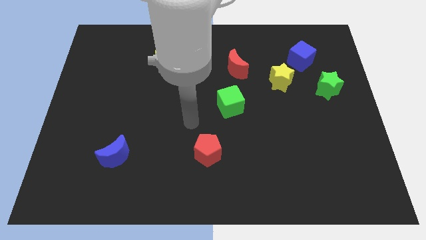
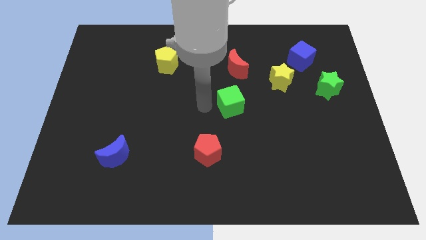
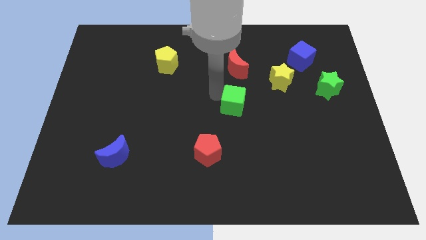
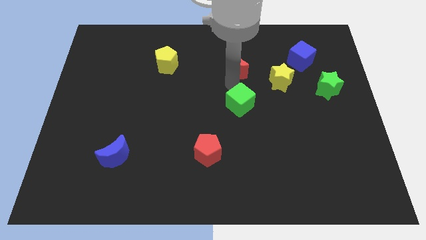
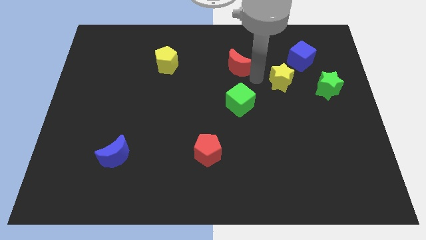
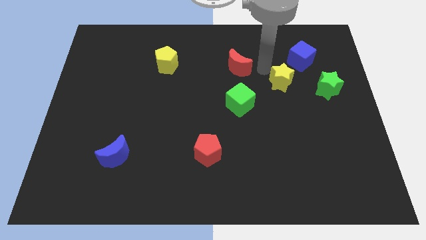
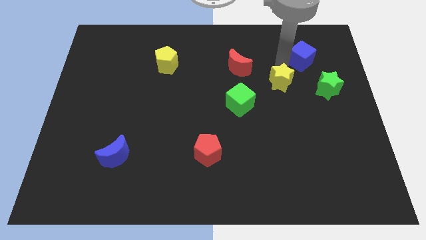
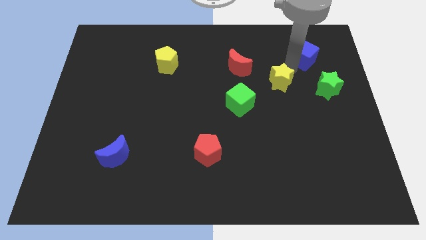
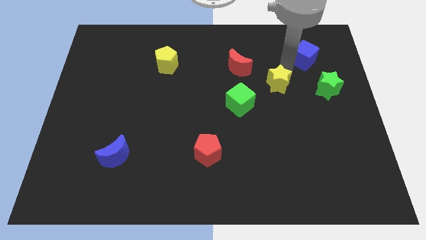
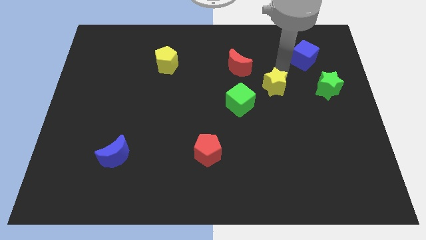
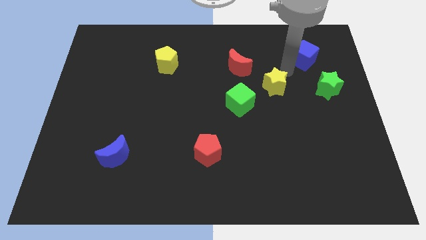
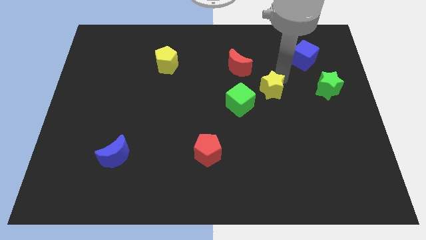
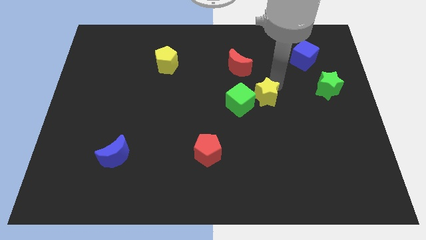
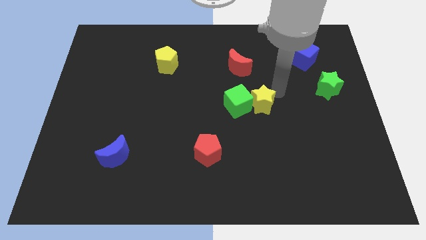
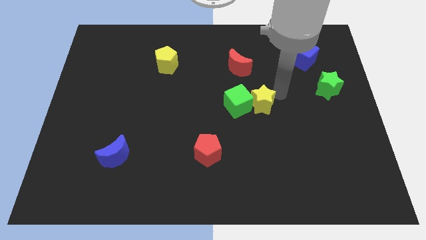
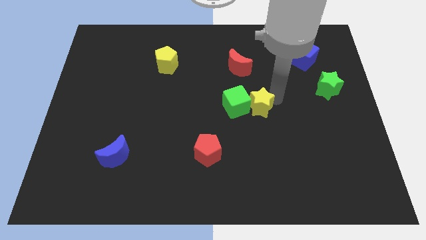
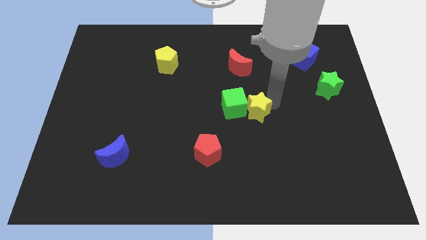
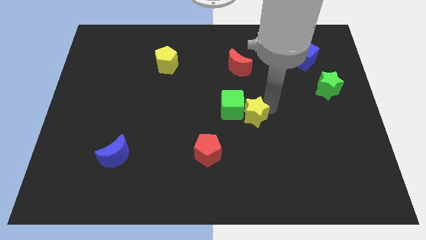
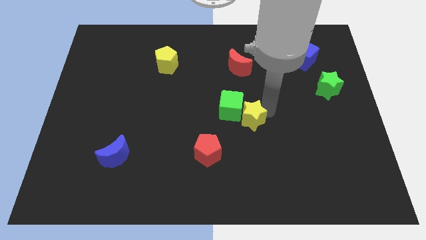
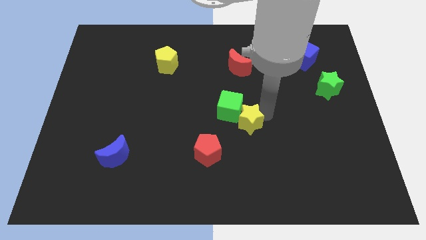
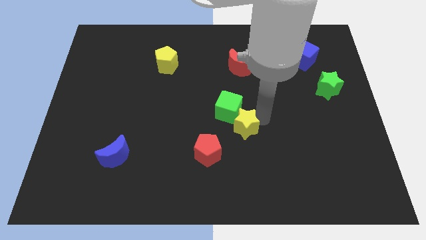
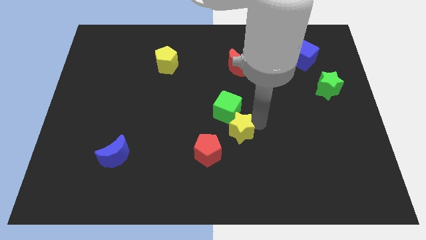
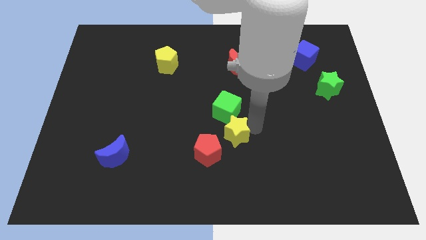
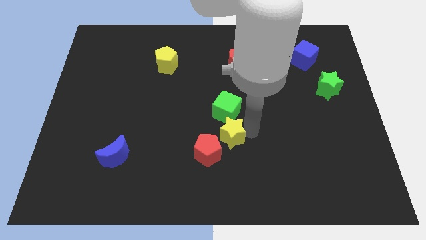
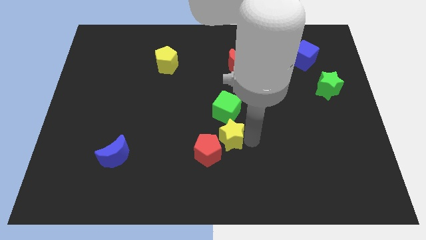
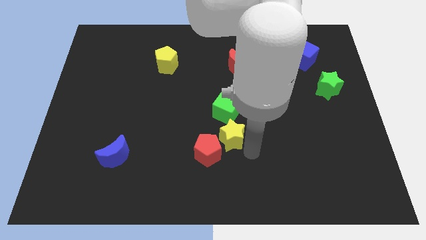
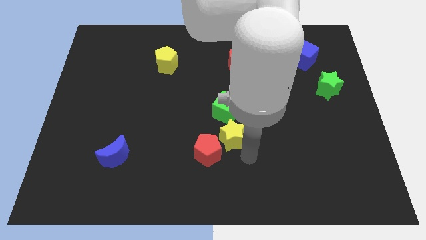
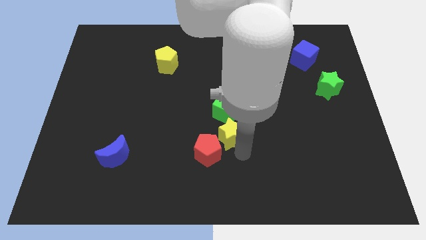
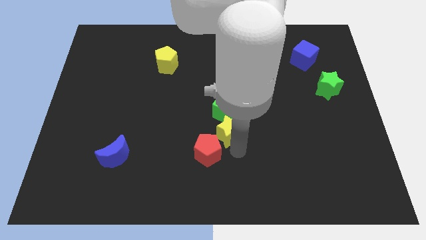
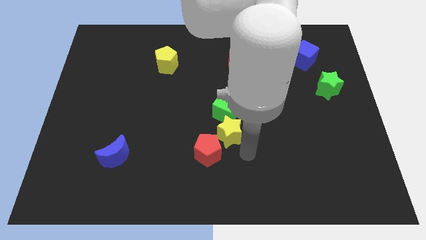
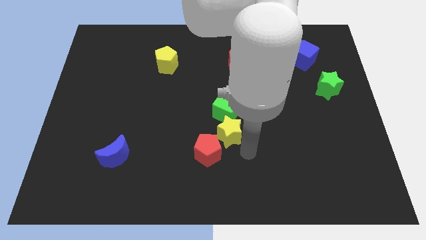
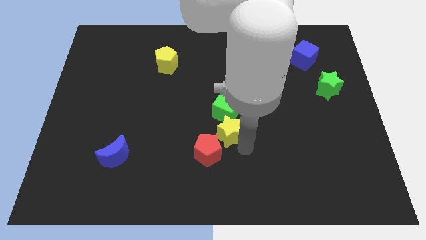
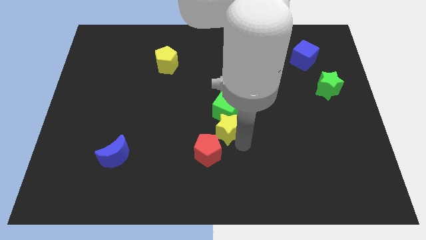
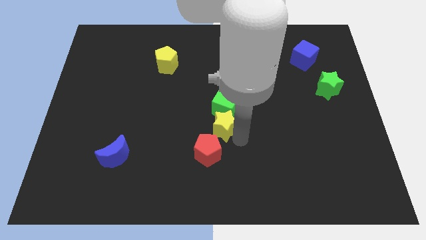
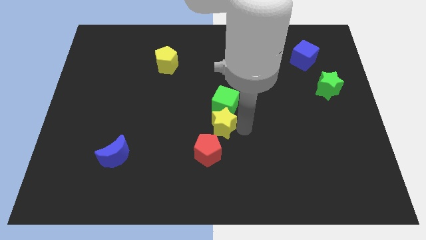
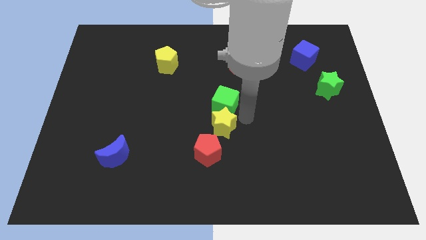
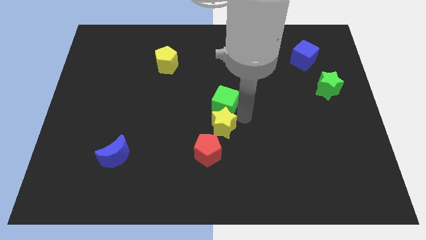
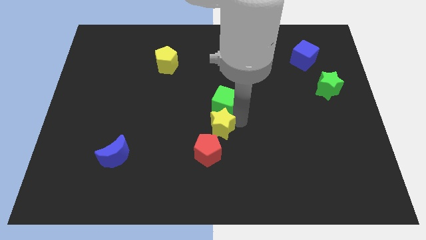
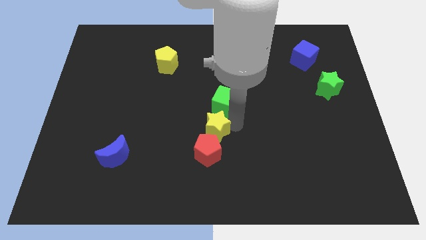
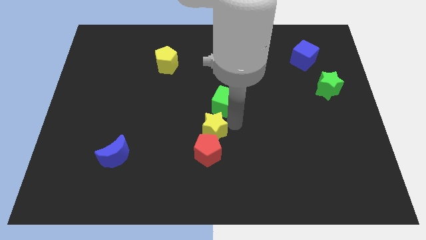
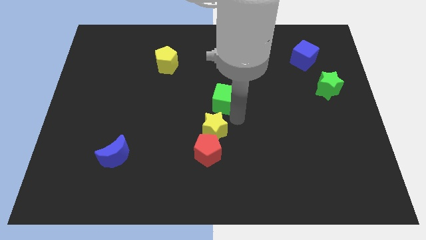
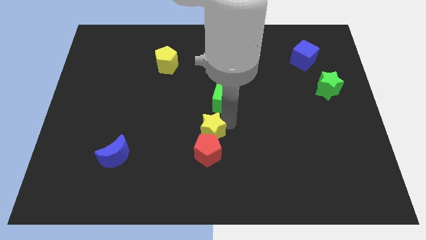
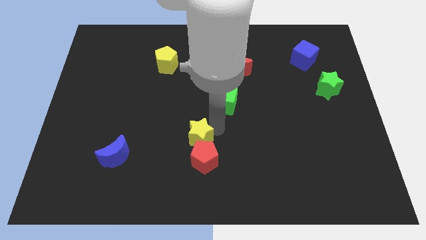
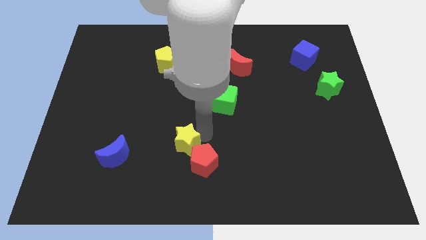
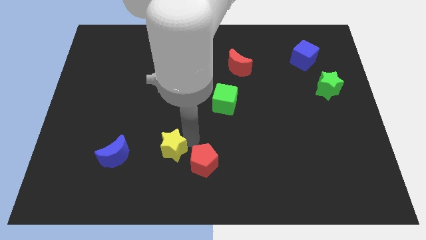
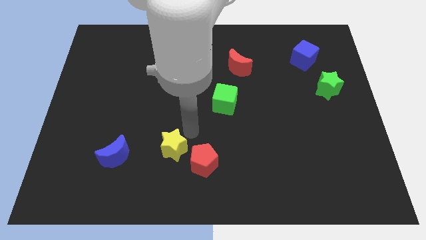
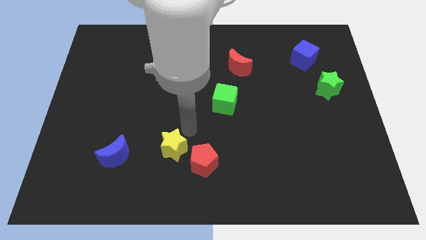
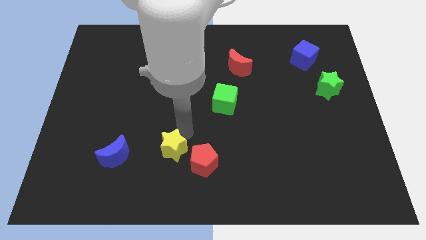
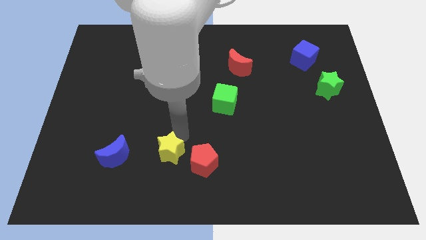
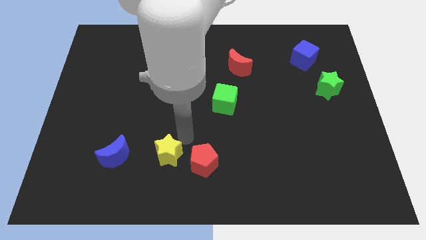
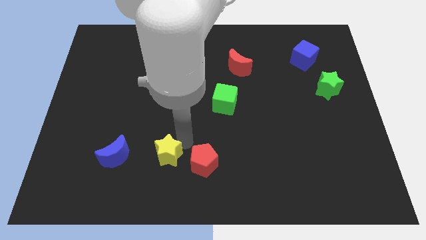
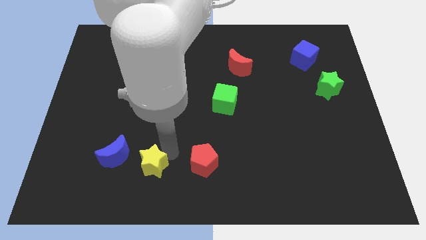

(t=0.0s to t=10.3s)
put the yellow star to the bottom right of the blue moon

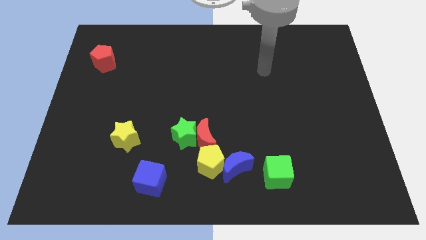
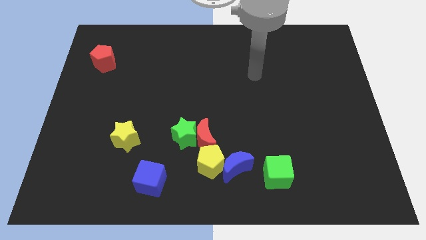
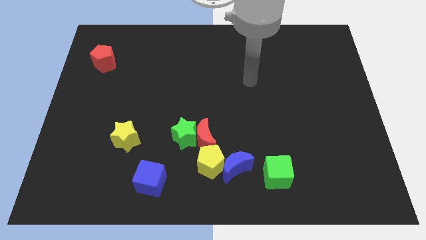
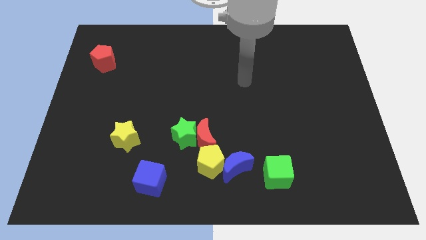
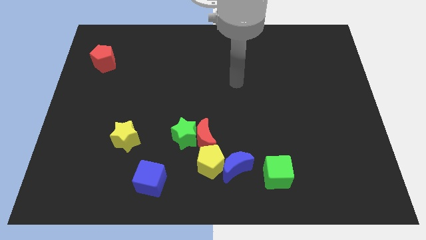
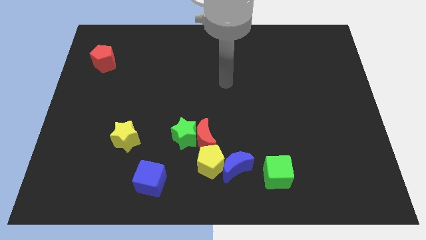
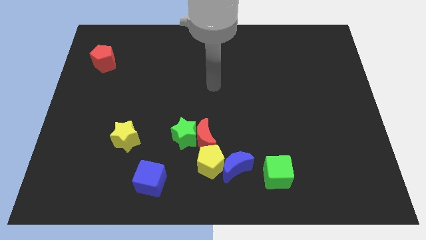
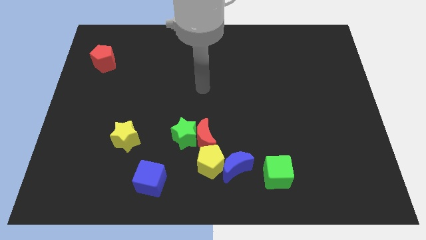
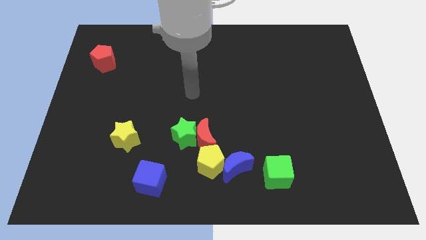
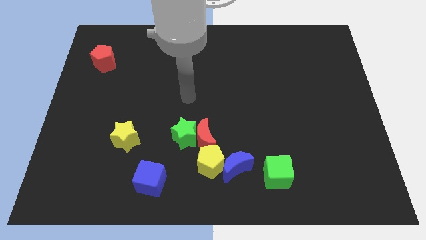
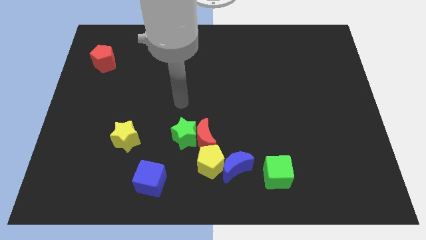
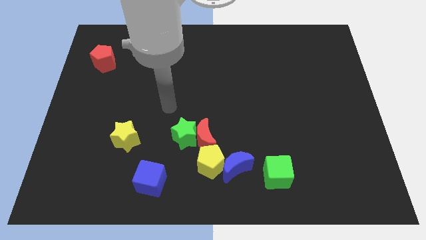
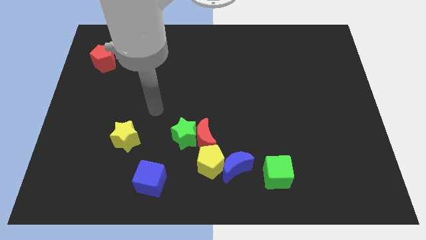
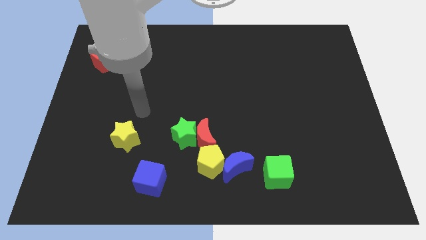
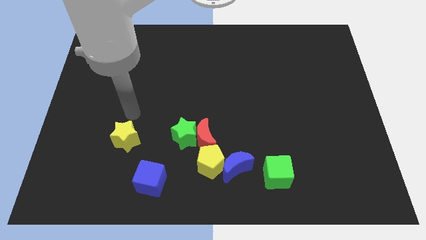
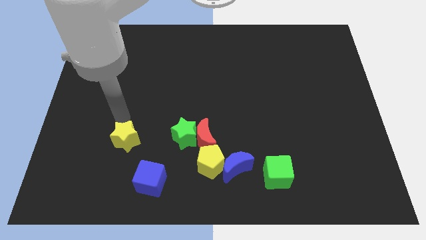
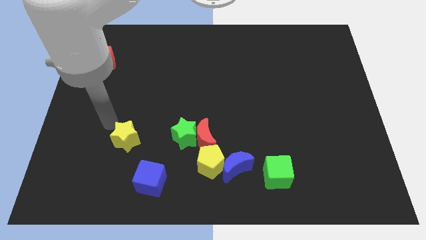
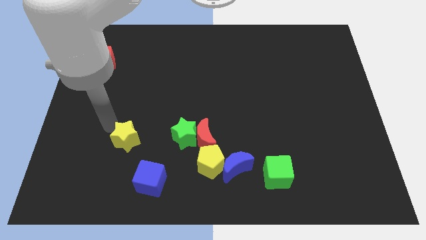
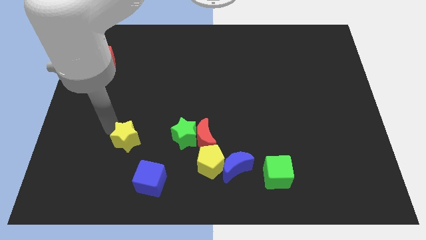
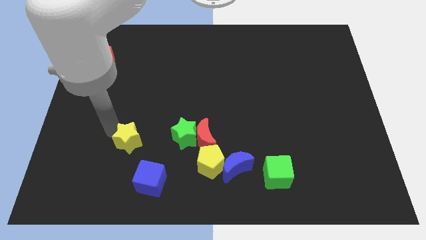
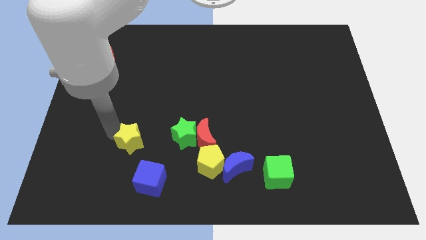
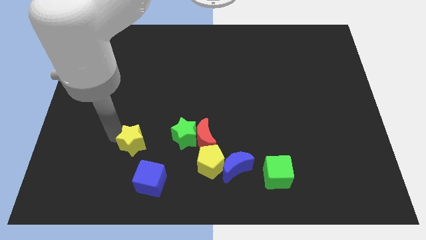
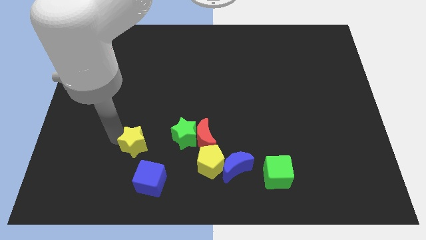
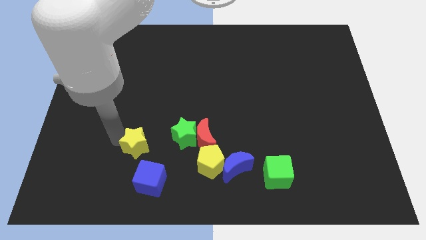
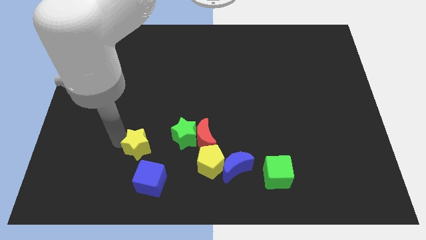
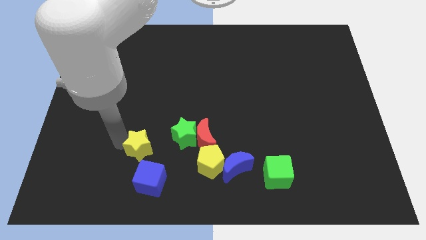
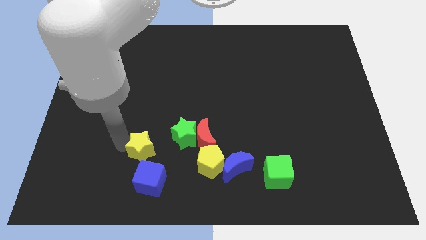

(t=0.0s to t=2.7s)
slide the yellow star to the left side of the yellow pentagon
